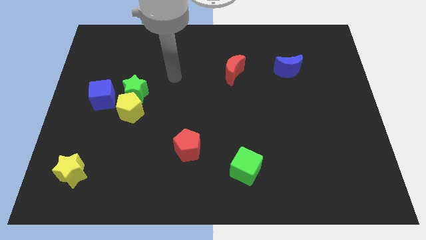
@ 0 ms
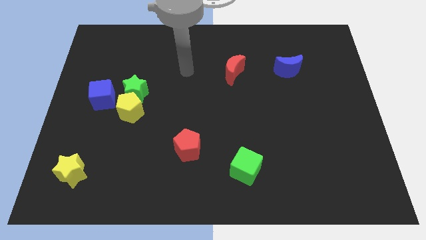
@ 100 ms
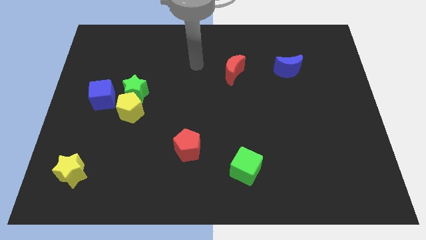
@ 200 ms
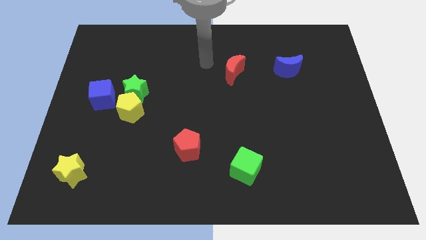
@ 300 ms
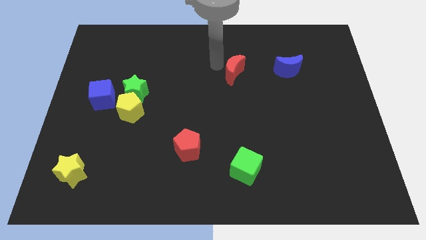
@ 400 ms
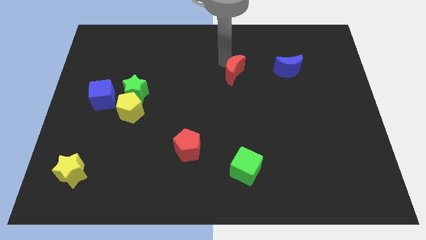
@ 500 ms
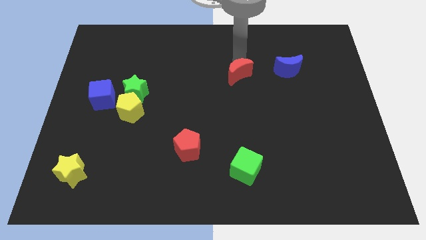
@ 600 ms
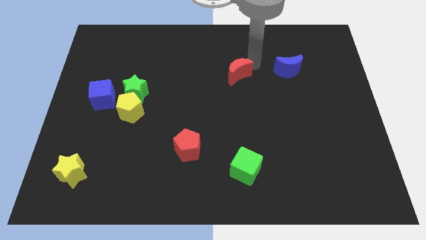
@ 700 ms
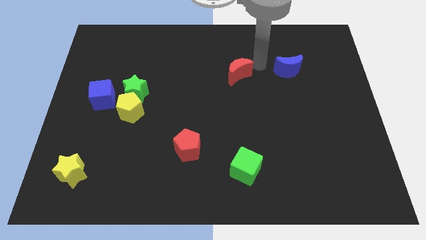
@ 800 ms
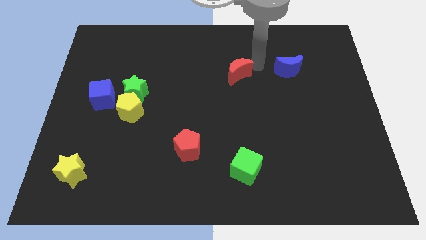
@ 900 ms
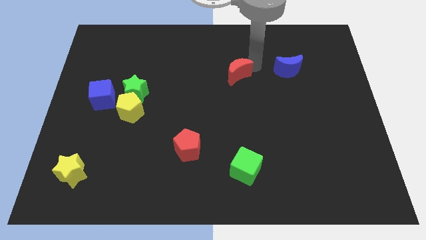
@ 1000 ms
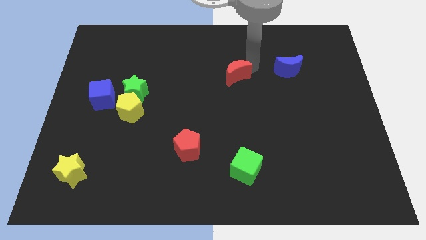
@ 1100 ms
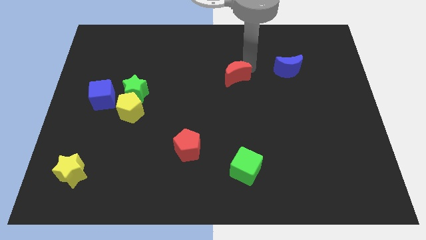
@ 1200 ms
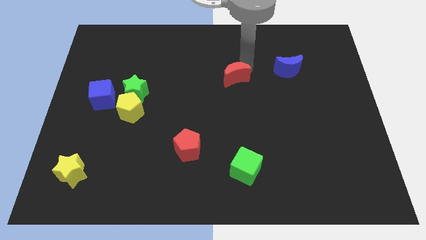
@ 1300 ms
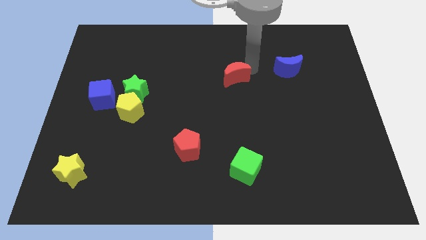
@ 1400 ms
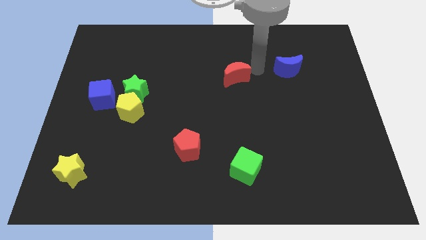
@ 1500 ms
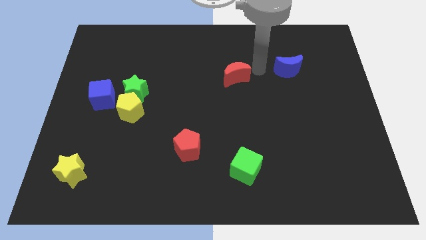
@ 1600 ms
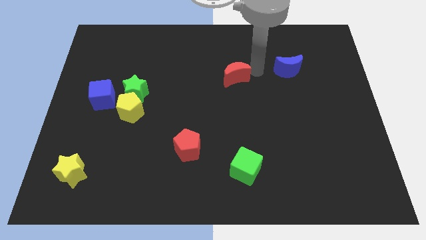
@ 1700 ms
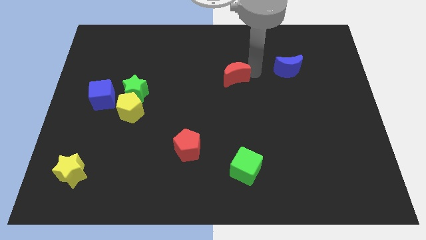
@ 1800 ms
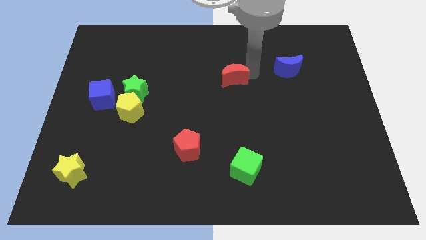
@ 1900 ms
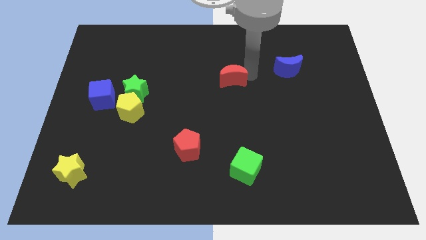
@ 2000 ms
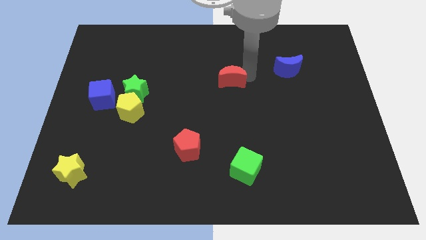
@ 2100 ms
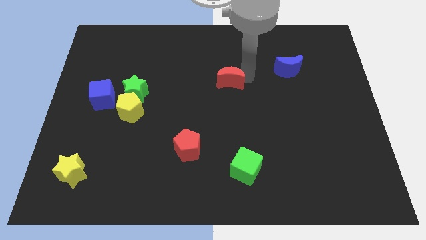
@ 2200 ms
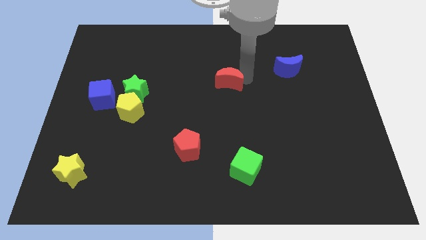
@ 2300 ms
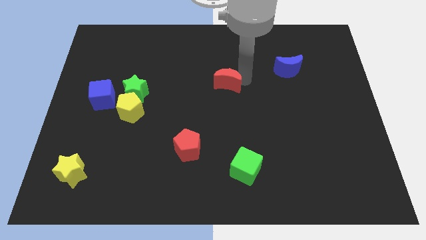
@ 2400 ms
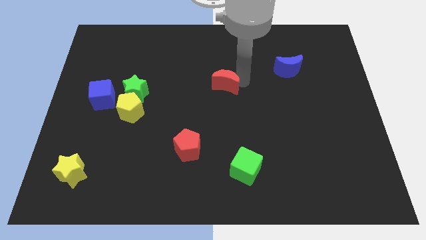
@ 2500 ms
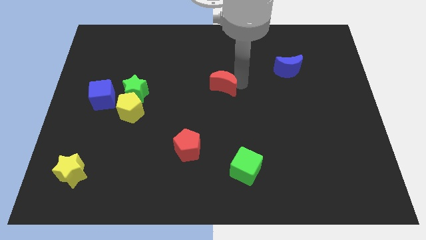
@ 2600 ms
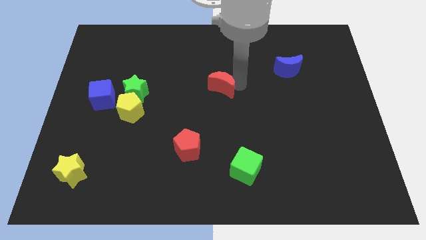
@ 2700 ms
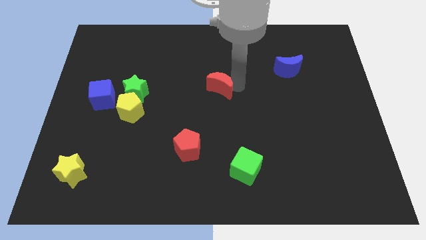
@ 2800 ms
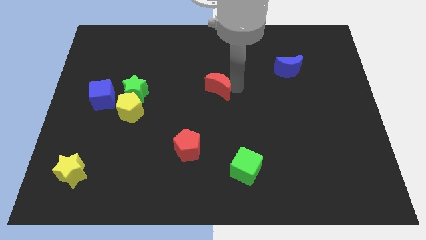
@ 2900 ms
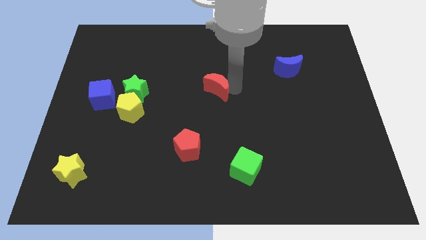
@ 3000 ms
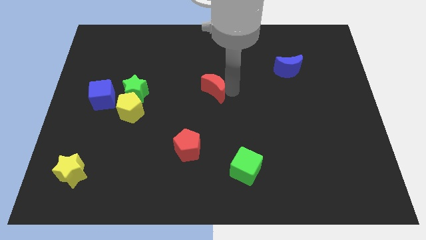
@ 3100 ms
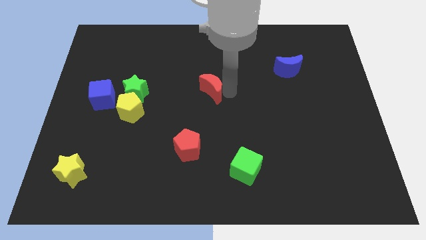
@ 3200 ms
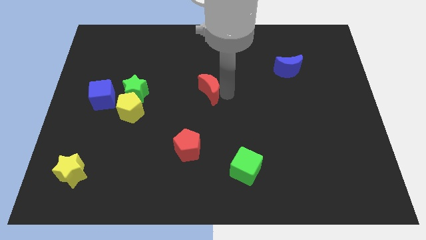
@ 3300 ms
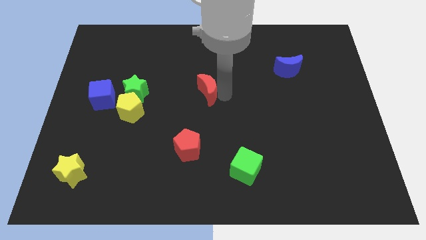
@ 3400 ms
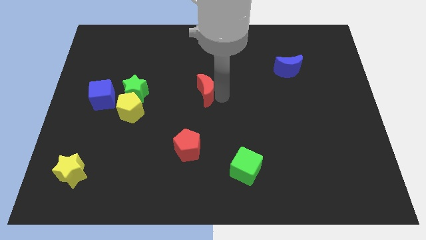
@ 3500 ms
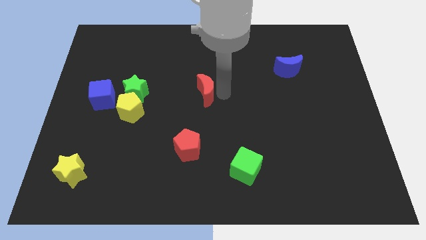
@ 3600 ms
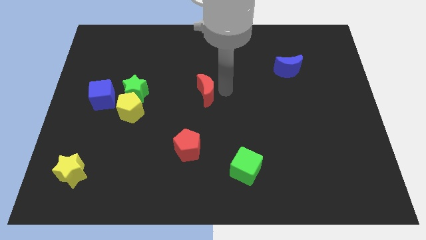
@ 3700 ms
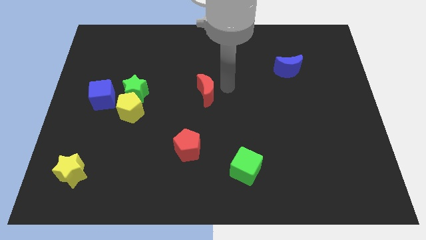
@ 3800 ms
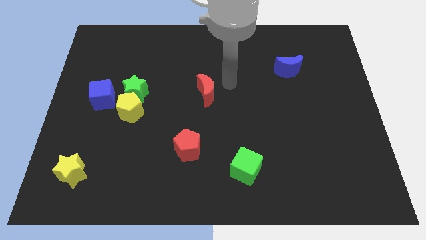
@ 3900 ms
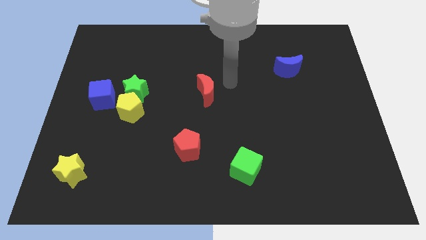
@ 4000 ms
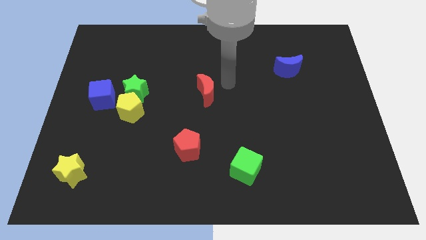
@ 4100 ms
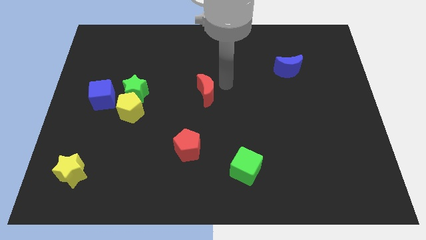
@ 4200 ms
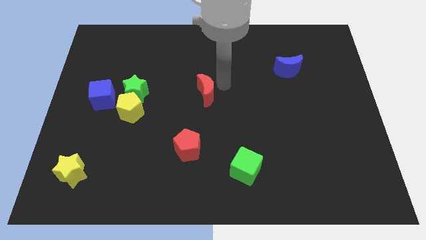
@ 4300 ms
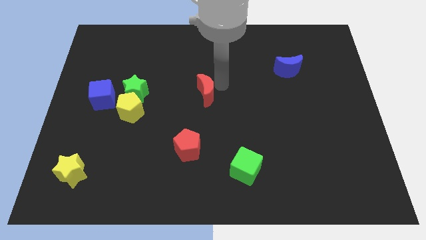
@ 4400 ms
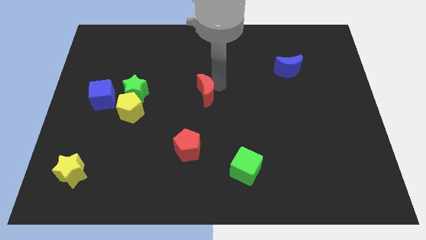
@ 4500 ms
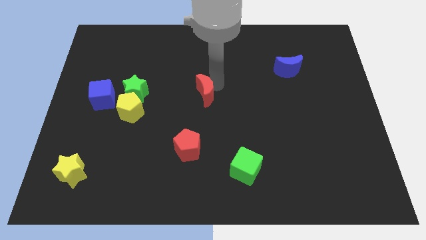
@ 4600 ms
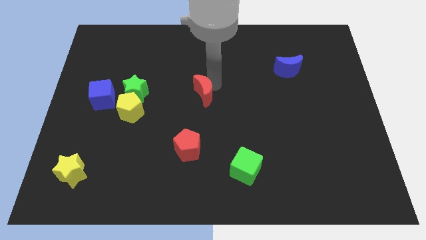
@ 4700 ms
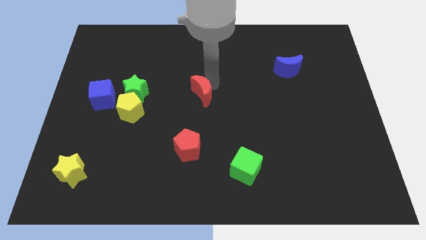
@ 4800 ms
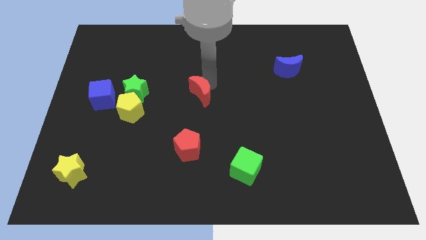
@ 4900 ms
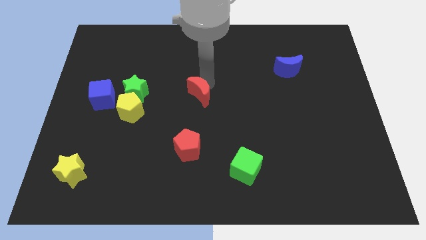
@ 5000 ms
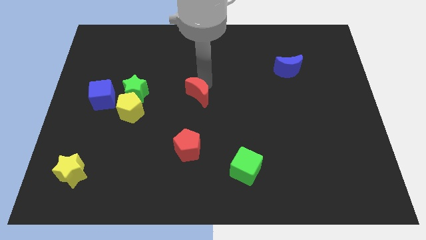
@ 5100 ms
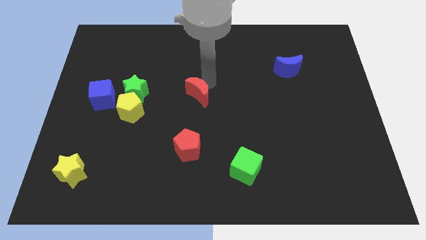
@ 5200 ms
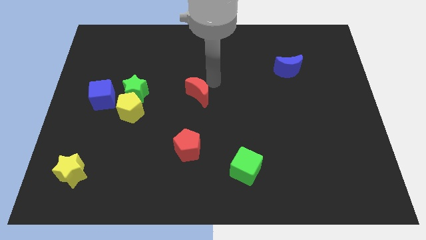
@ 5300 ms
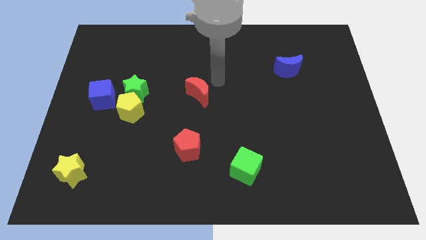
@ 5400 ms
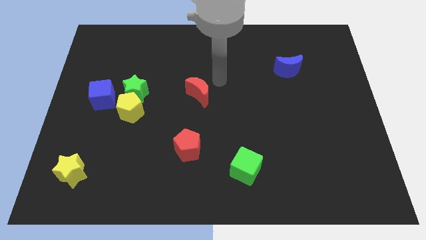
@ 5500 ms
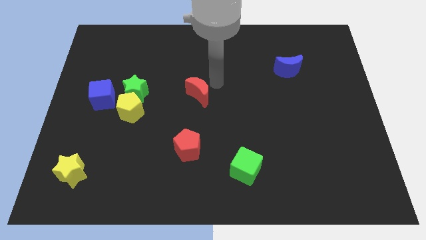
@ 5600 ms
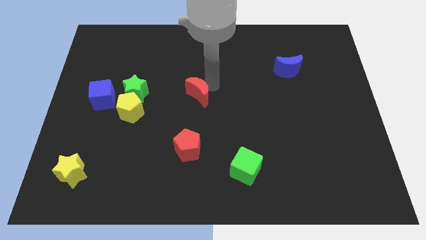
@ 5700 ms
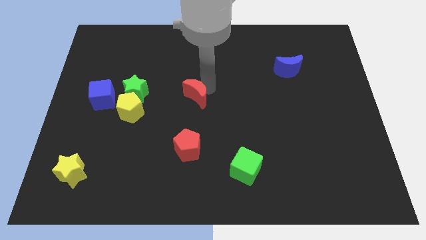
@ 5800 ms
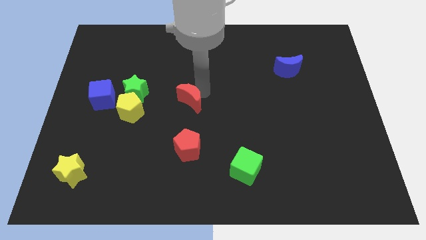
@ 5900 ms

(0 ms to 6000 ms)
put the red moon right of the yellow pentagon

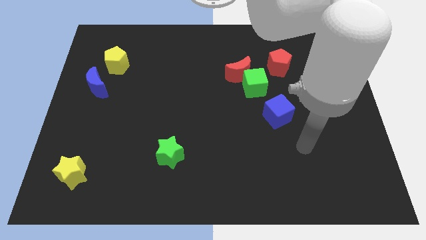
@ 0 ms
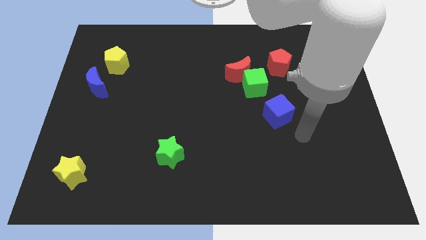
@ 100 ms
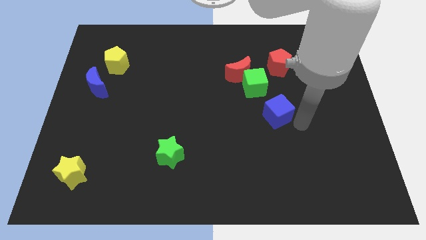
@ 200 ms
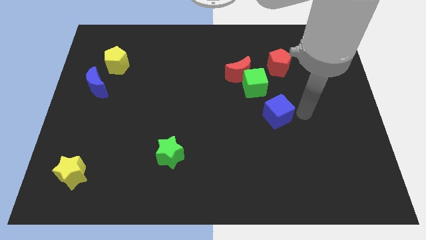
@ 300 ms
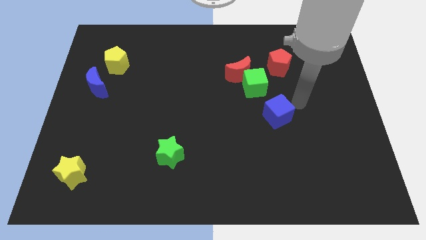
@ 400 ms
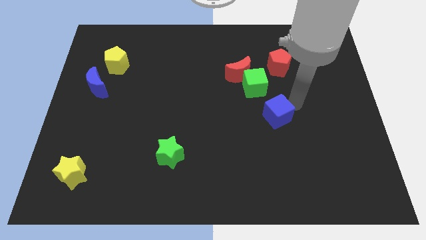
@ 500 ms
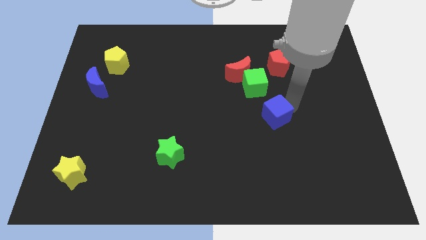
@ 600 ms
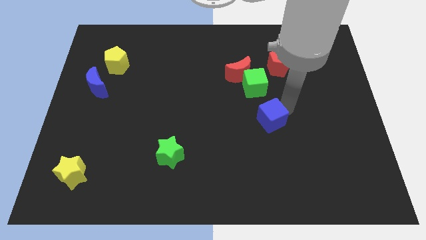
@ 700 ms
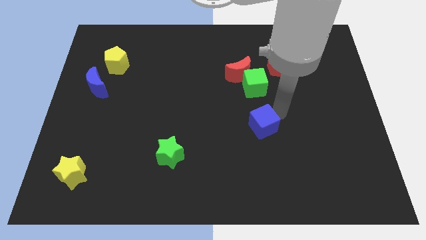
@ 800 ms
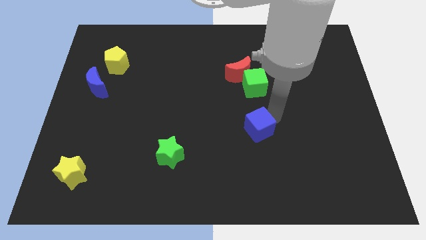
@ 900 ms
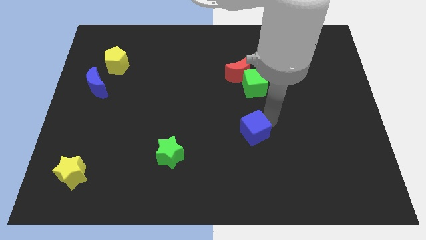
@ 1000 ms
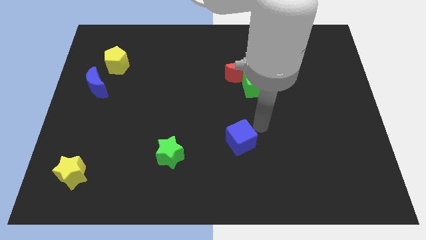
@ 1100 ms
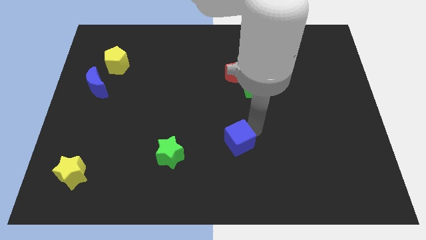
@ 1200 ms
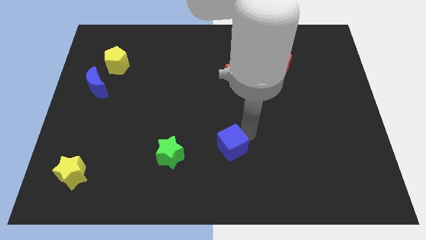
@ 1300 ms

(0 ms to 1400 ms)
move the blue cube right of the green star
